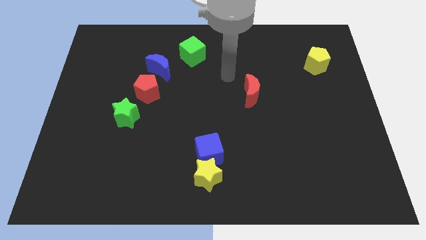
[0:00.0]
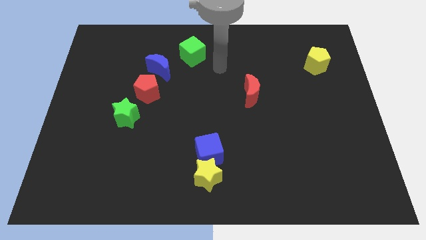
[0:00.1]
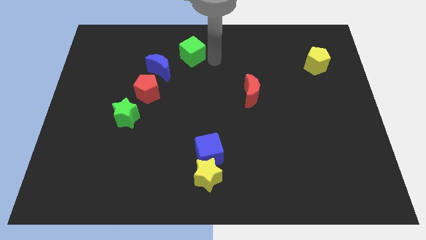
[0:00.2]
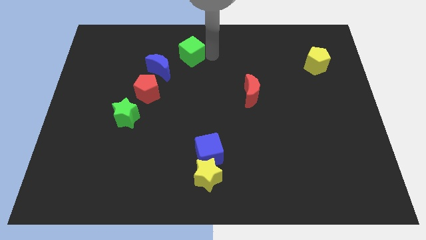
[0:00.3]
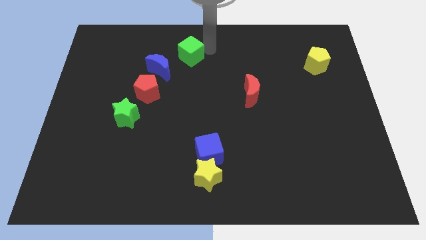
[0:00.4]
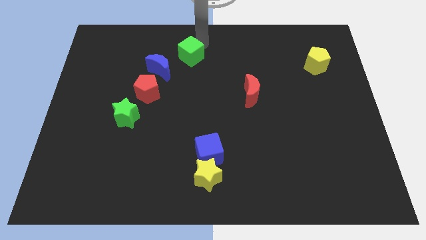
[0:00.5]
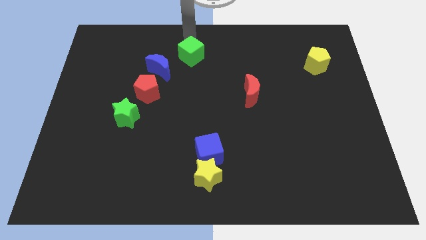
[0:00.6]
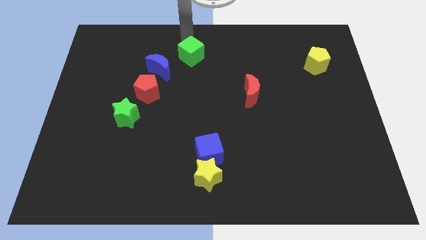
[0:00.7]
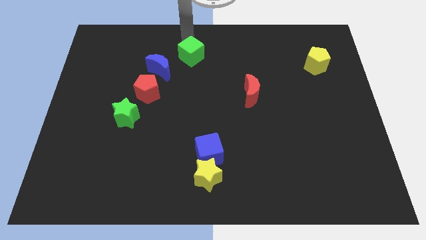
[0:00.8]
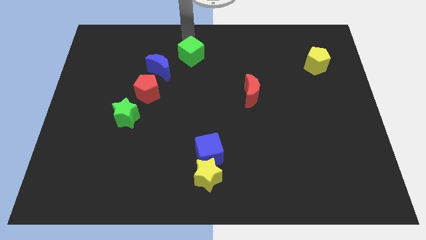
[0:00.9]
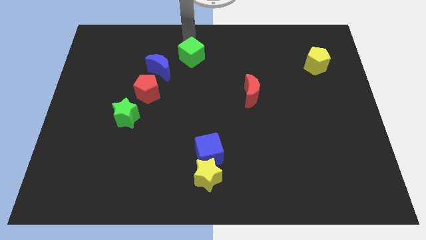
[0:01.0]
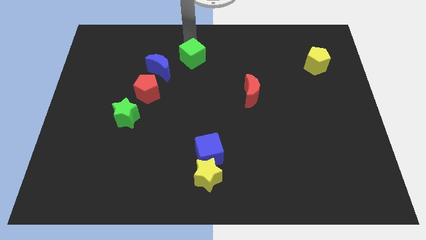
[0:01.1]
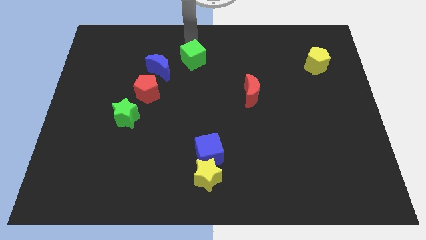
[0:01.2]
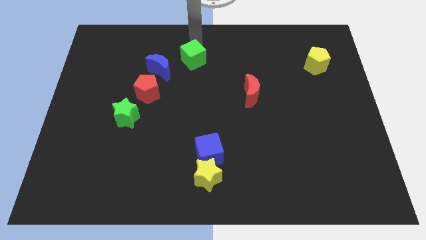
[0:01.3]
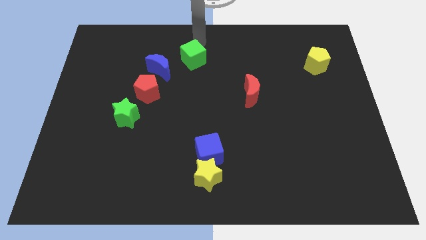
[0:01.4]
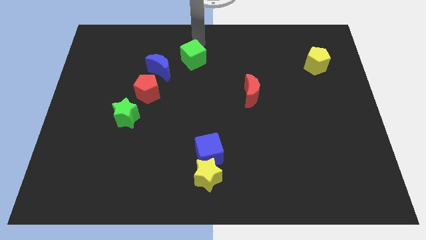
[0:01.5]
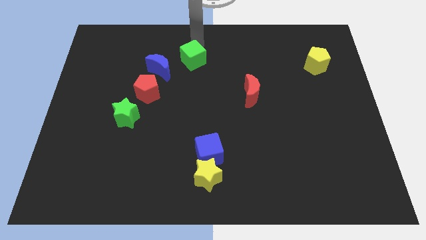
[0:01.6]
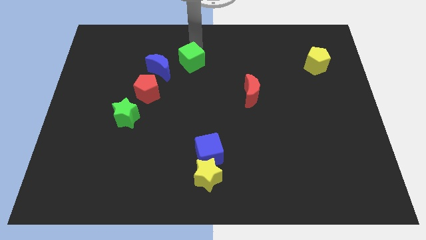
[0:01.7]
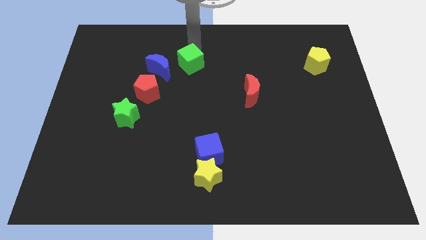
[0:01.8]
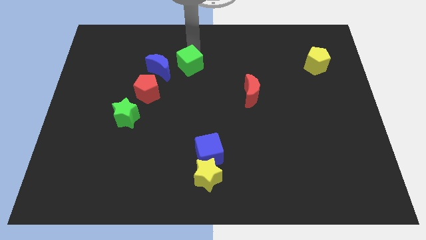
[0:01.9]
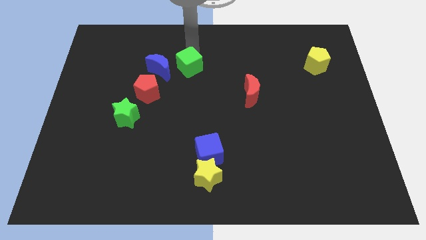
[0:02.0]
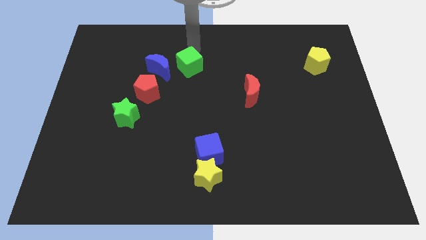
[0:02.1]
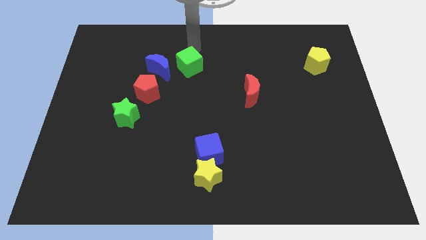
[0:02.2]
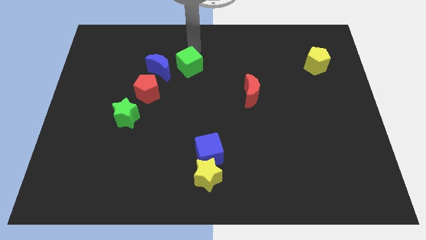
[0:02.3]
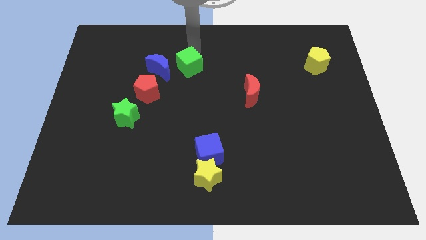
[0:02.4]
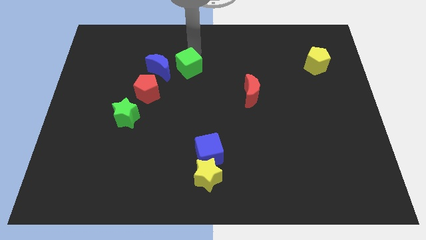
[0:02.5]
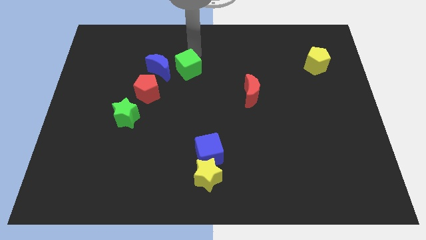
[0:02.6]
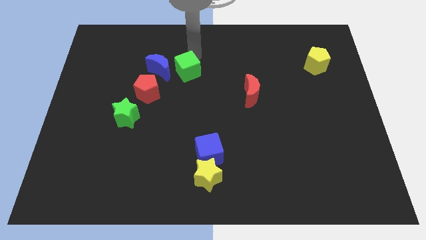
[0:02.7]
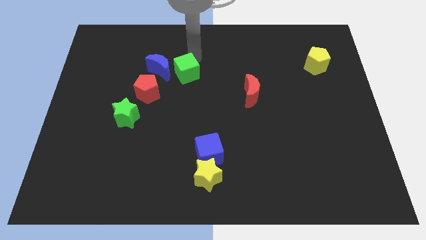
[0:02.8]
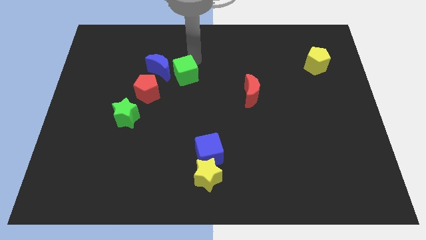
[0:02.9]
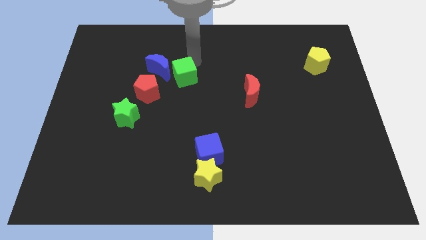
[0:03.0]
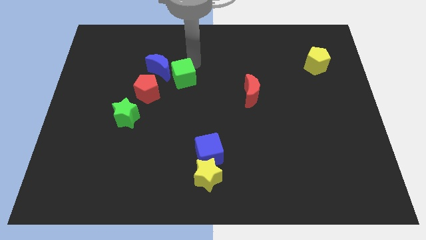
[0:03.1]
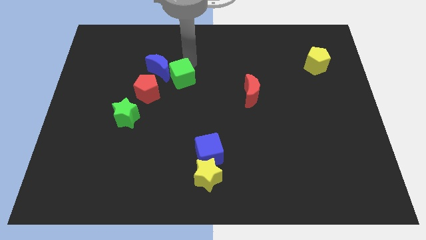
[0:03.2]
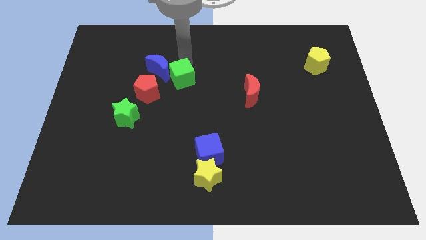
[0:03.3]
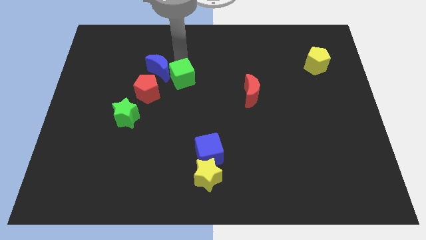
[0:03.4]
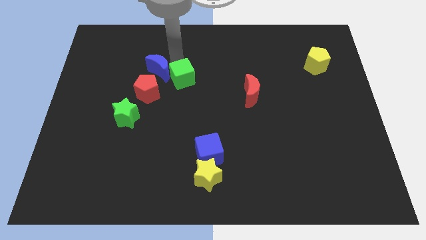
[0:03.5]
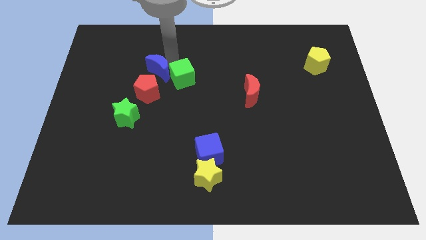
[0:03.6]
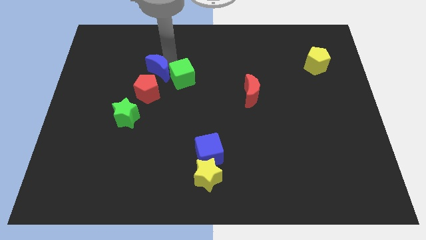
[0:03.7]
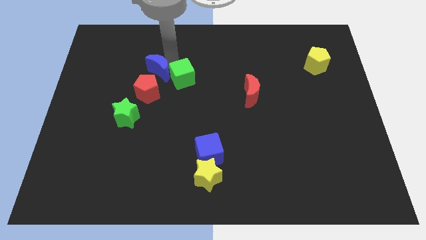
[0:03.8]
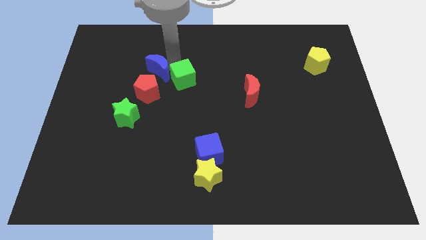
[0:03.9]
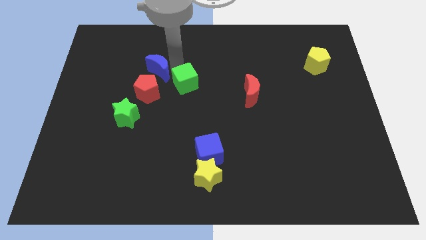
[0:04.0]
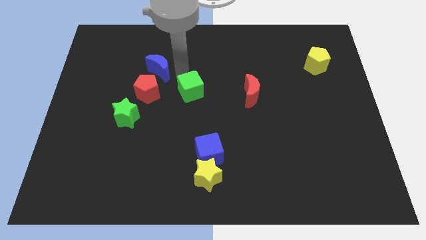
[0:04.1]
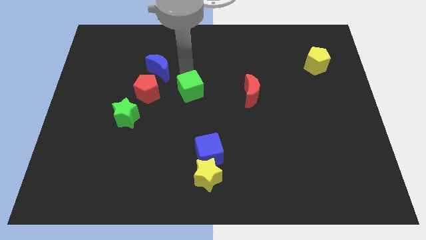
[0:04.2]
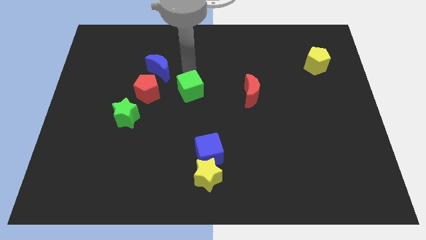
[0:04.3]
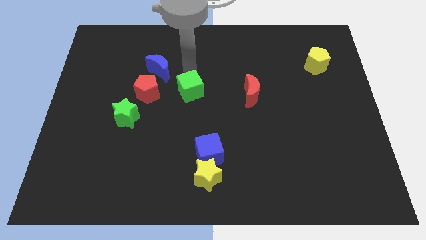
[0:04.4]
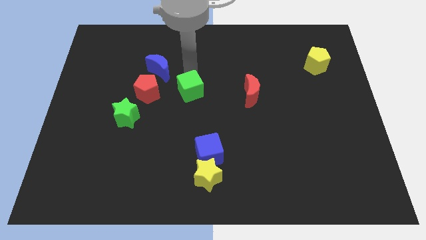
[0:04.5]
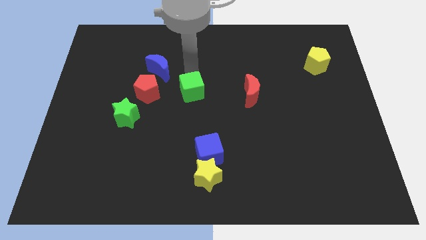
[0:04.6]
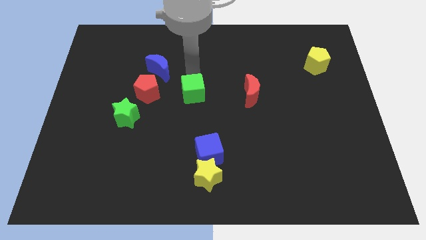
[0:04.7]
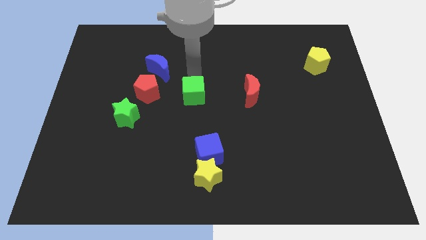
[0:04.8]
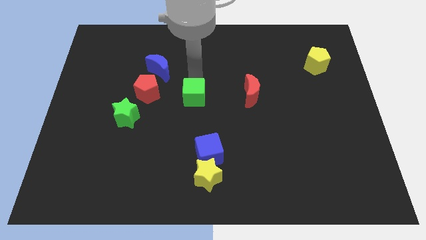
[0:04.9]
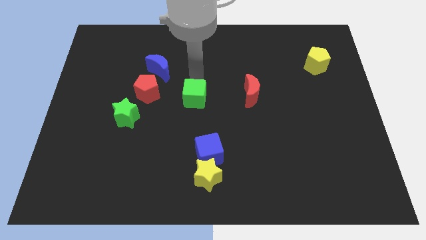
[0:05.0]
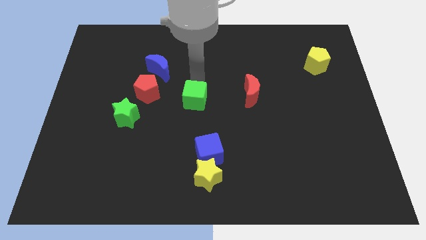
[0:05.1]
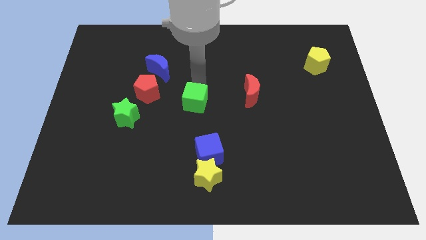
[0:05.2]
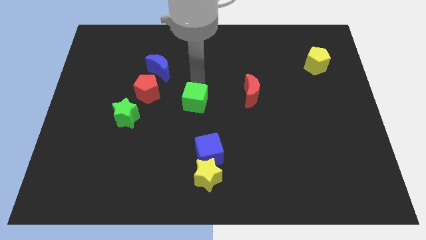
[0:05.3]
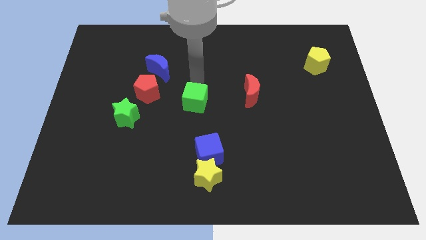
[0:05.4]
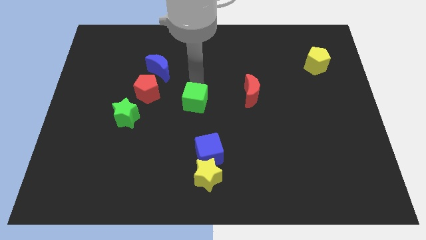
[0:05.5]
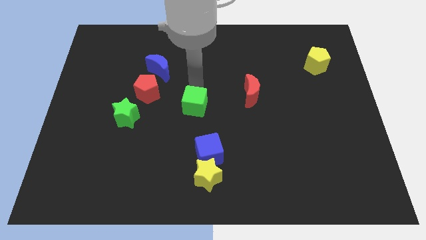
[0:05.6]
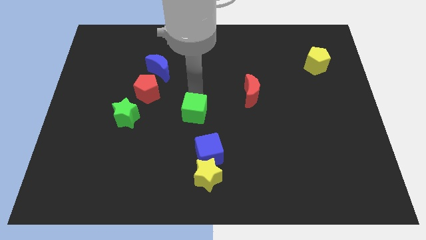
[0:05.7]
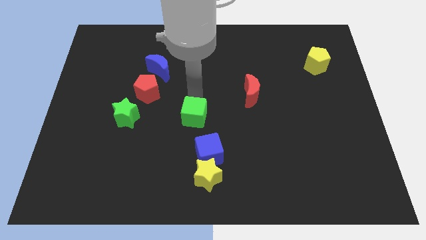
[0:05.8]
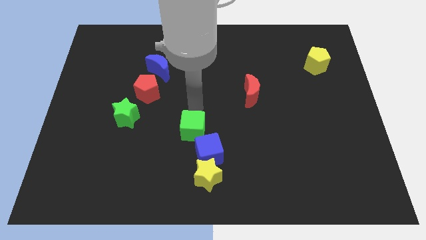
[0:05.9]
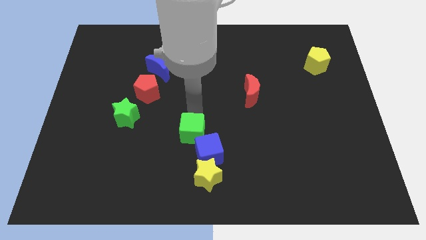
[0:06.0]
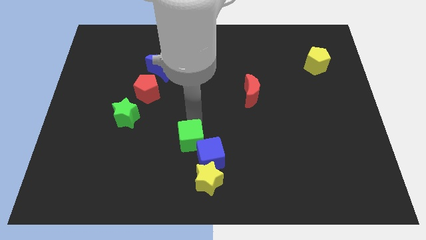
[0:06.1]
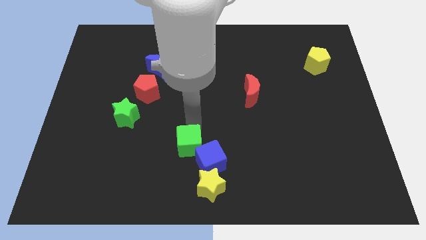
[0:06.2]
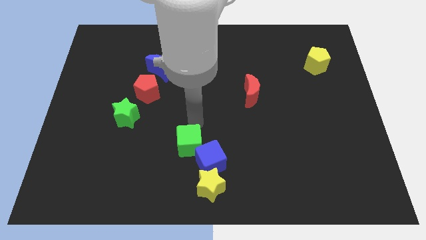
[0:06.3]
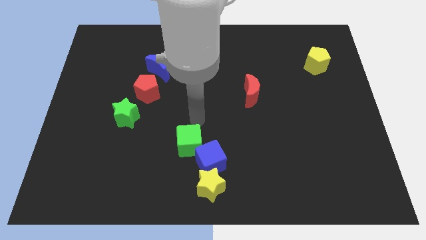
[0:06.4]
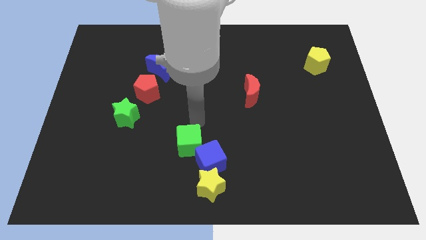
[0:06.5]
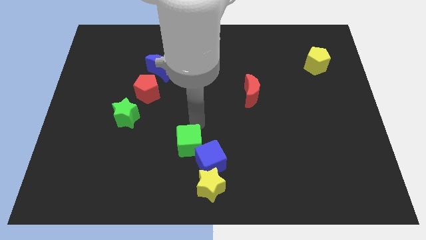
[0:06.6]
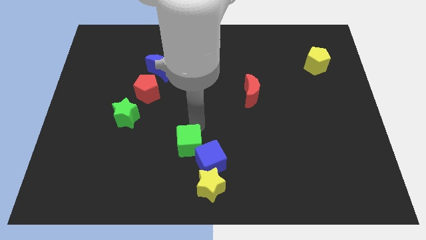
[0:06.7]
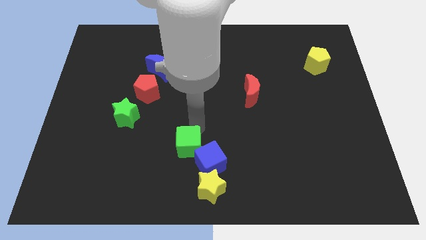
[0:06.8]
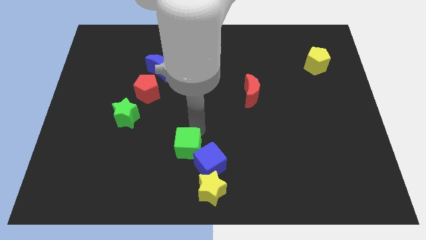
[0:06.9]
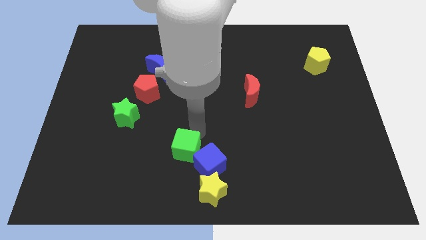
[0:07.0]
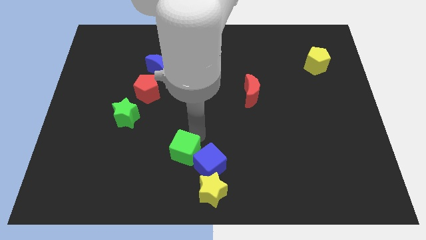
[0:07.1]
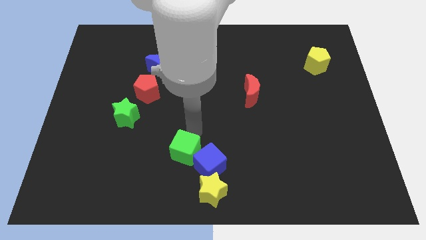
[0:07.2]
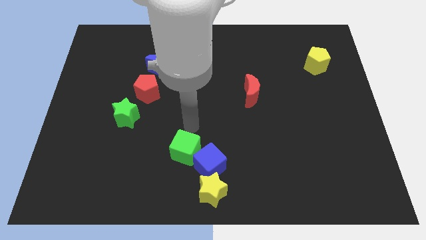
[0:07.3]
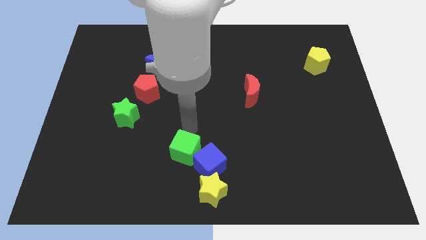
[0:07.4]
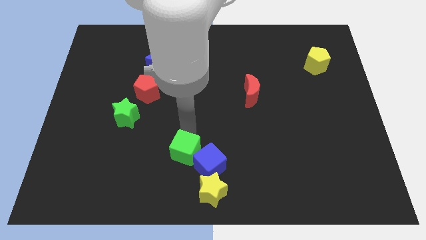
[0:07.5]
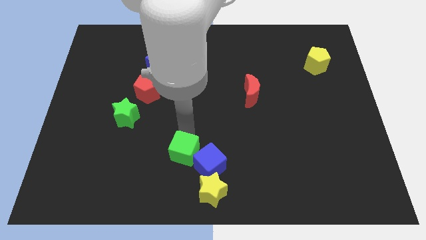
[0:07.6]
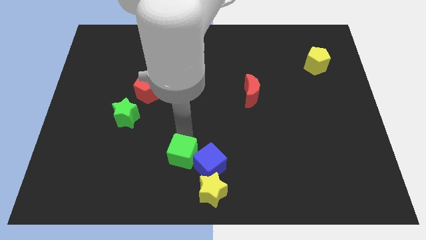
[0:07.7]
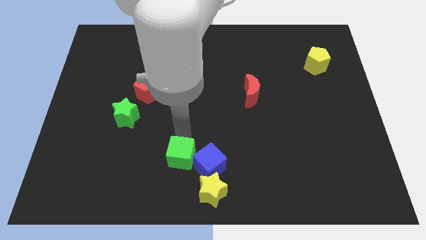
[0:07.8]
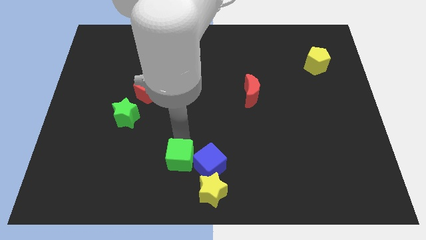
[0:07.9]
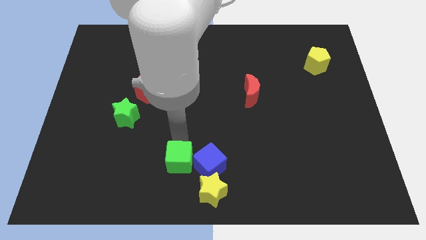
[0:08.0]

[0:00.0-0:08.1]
move the green cube to the bottom side
